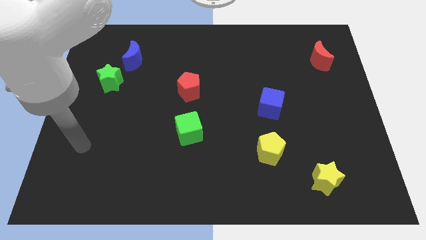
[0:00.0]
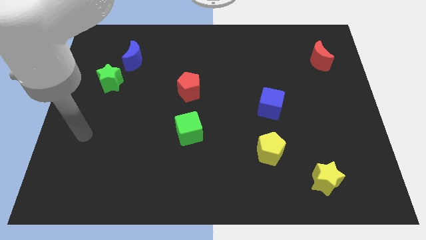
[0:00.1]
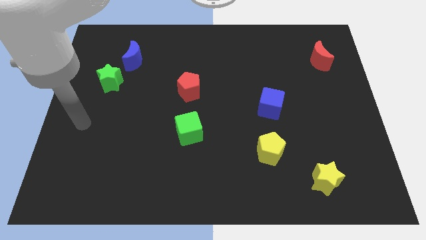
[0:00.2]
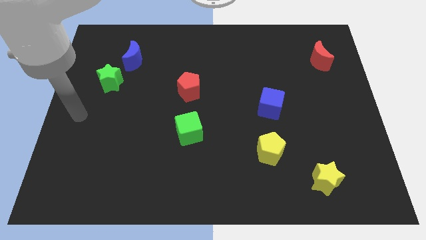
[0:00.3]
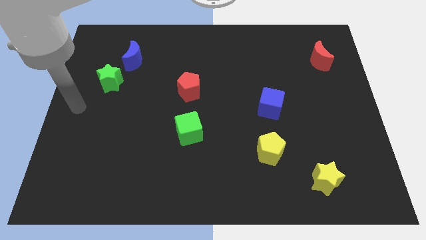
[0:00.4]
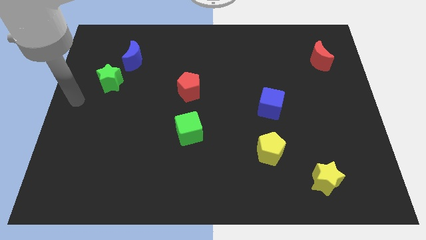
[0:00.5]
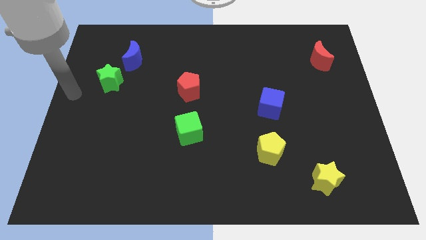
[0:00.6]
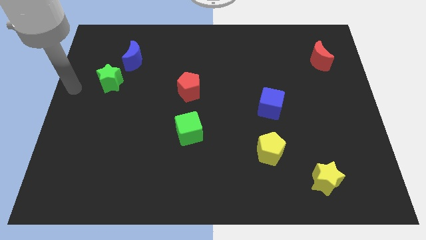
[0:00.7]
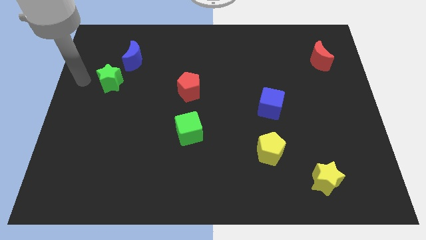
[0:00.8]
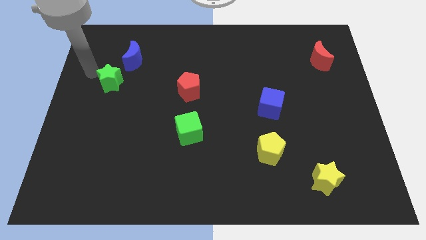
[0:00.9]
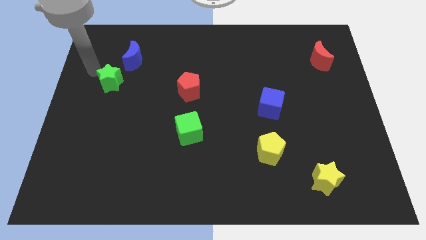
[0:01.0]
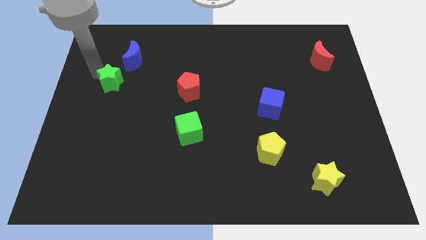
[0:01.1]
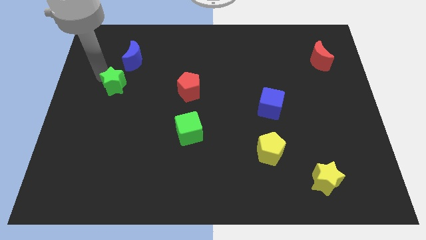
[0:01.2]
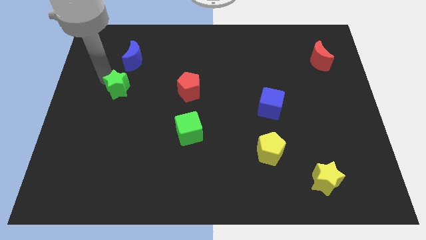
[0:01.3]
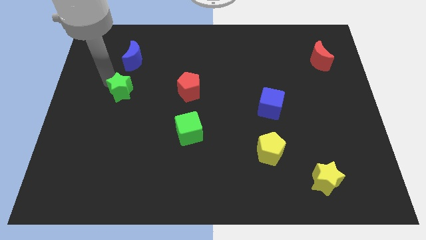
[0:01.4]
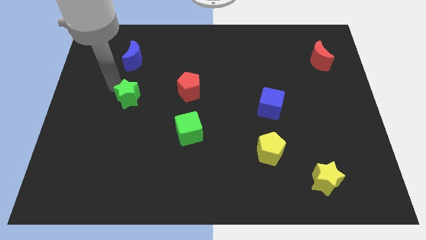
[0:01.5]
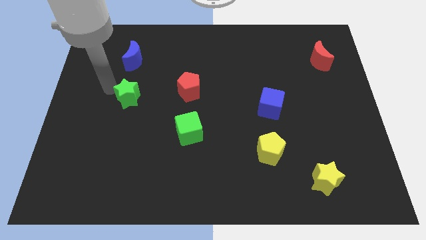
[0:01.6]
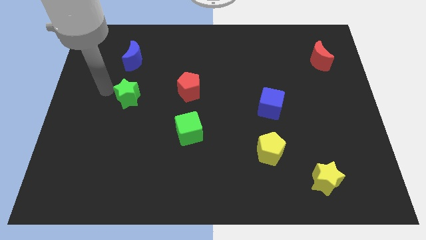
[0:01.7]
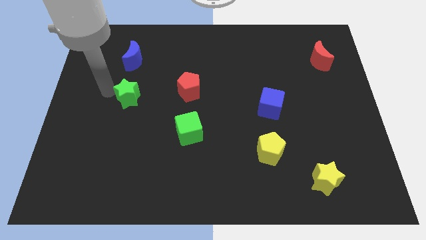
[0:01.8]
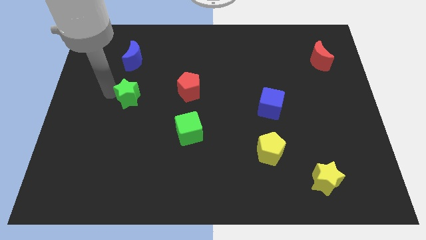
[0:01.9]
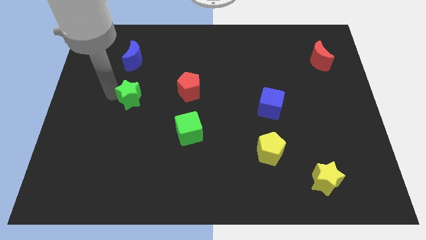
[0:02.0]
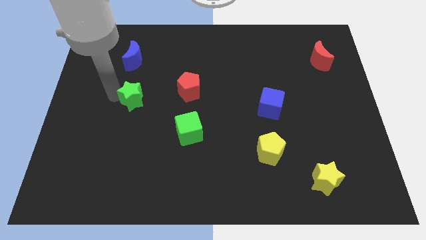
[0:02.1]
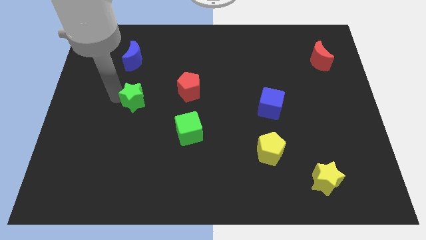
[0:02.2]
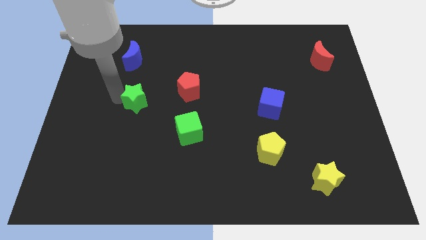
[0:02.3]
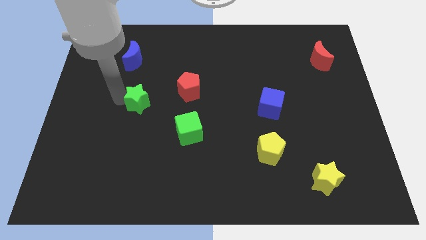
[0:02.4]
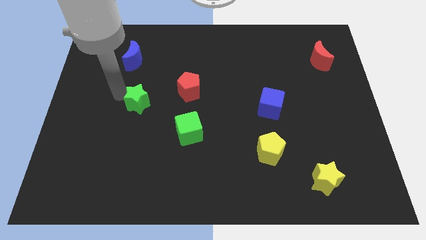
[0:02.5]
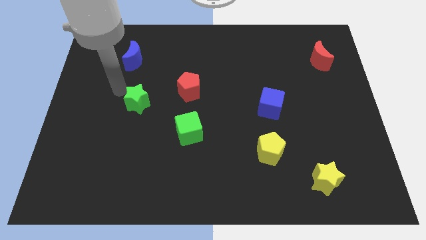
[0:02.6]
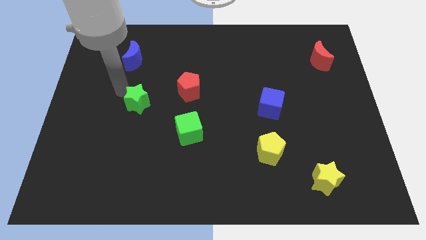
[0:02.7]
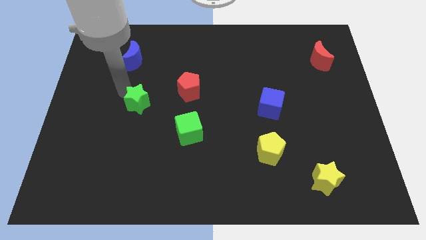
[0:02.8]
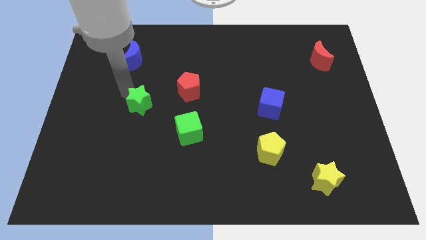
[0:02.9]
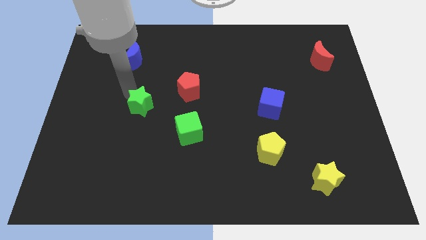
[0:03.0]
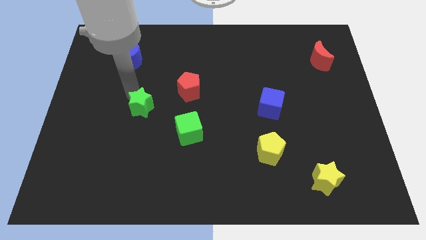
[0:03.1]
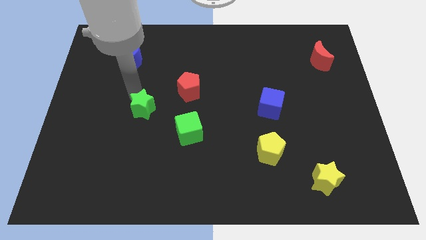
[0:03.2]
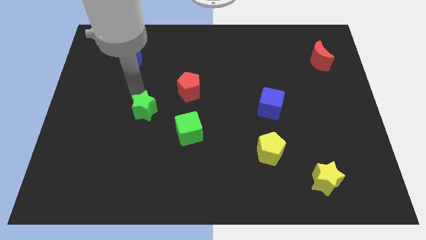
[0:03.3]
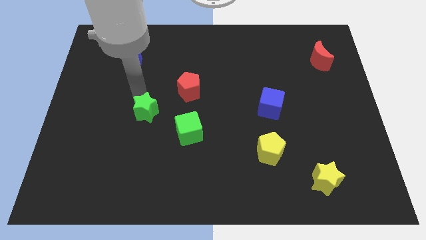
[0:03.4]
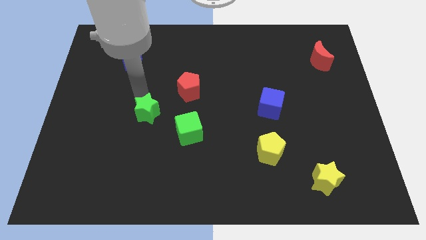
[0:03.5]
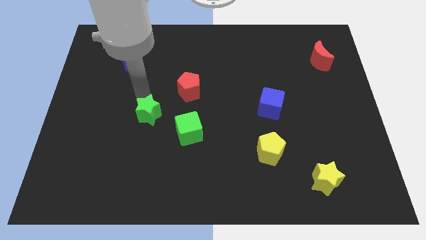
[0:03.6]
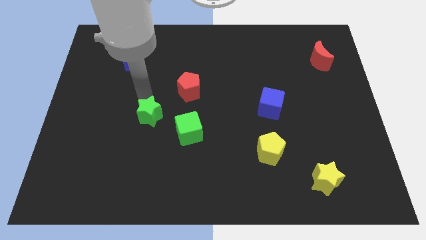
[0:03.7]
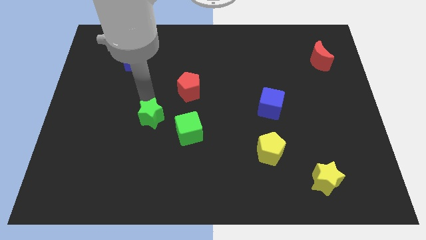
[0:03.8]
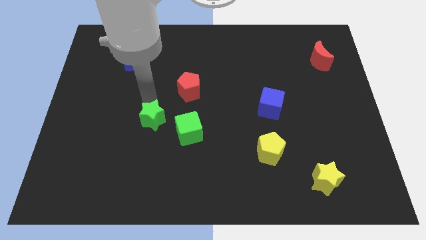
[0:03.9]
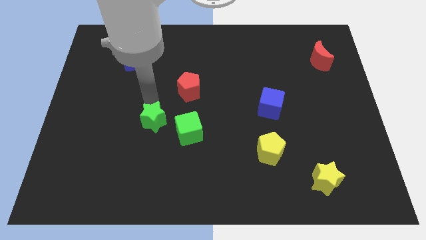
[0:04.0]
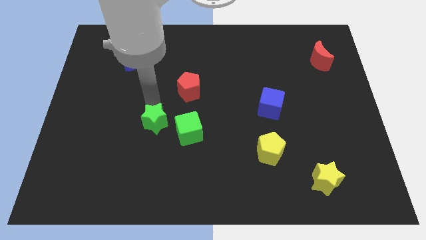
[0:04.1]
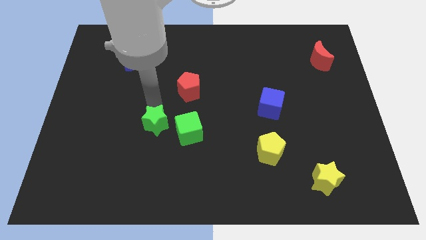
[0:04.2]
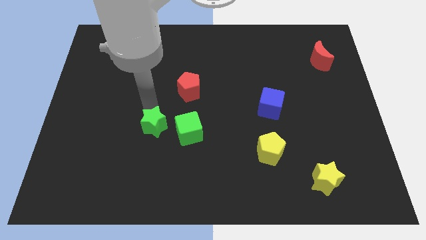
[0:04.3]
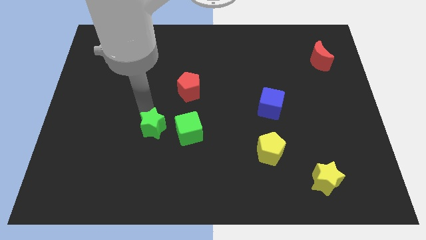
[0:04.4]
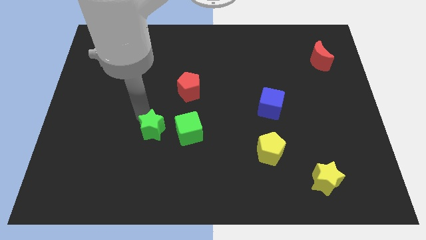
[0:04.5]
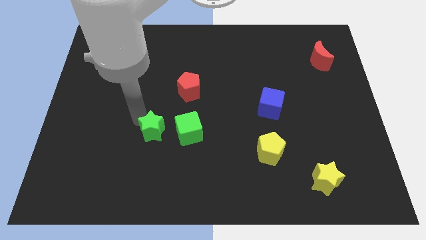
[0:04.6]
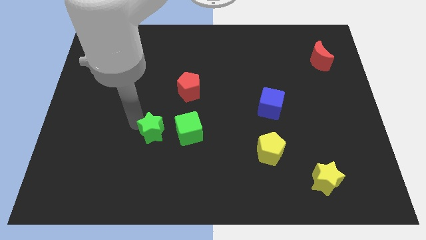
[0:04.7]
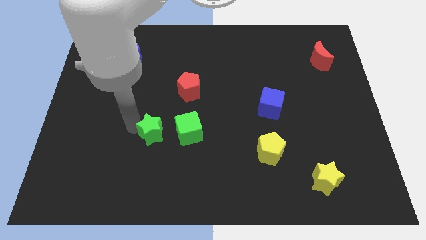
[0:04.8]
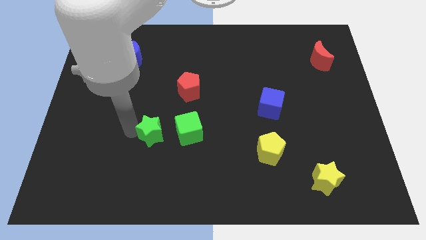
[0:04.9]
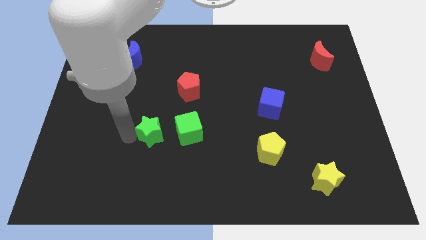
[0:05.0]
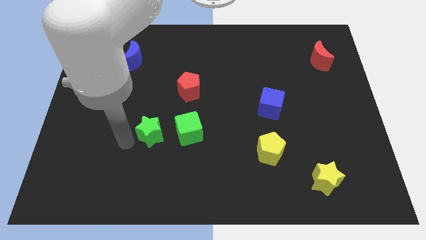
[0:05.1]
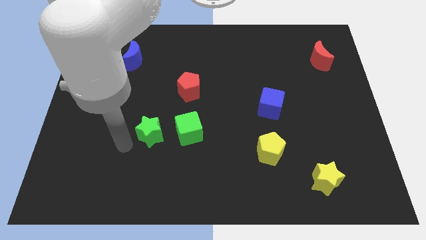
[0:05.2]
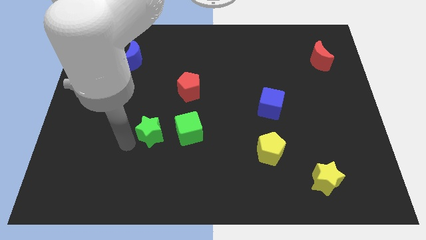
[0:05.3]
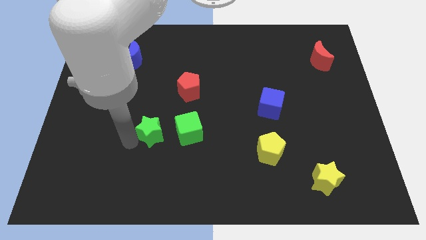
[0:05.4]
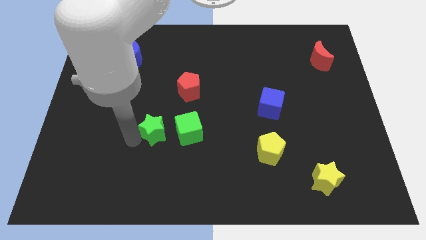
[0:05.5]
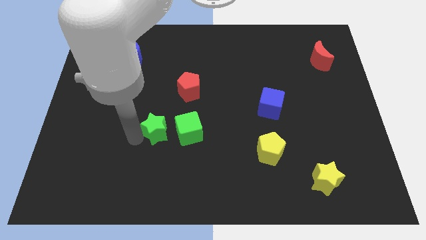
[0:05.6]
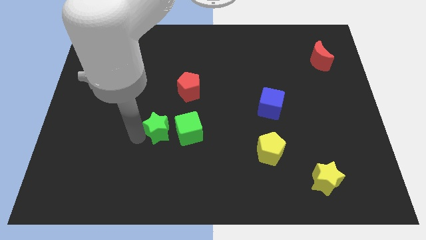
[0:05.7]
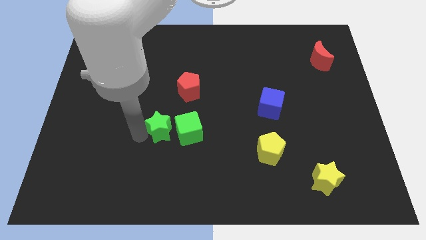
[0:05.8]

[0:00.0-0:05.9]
put the green star close to the green cube

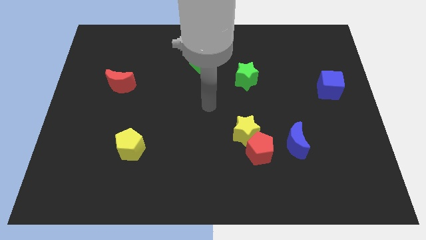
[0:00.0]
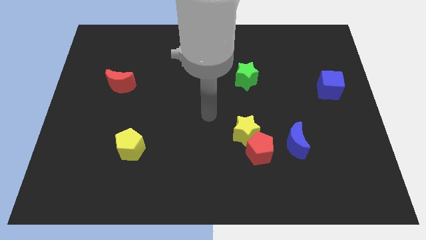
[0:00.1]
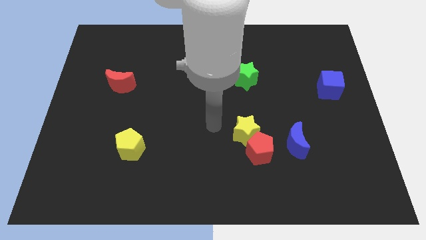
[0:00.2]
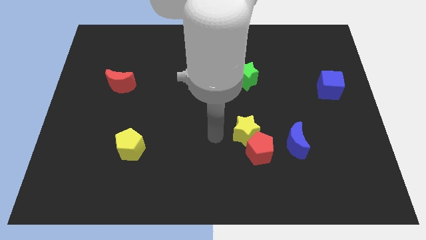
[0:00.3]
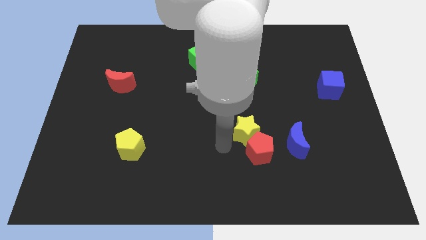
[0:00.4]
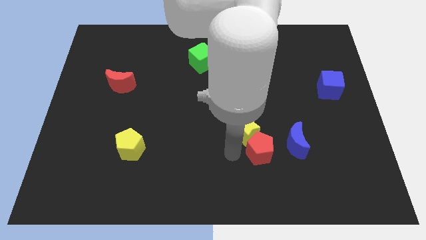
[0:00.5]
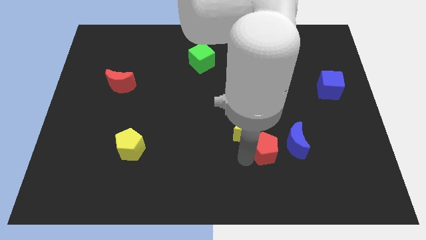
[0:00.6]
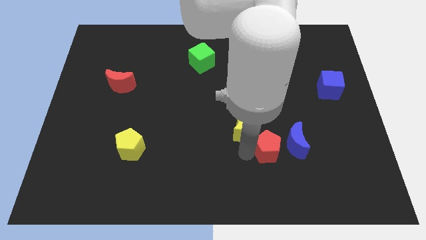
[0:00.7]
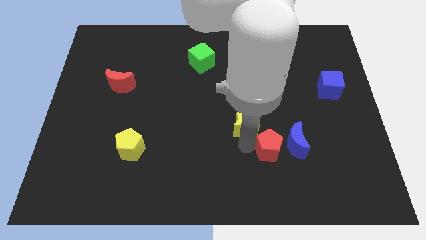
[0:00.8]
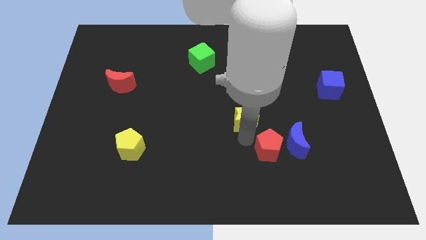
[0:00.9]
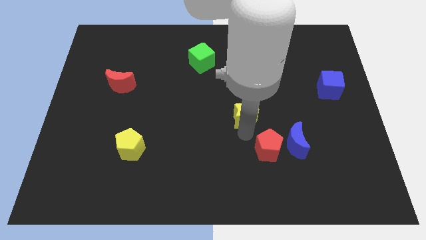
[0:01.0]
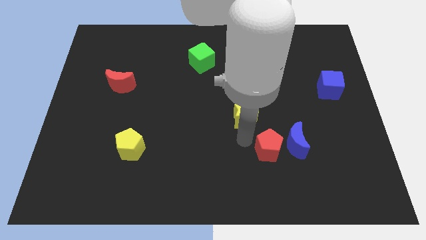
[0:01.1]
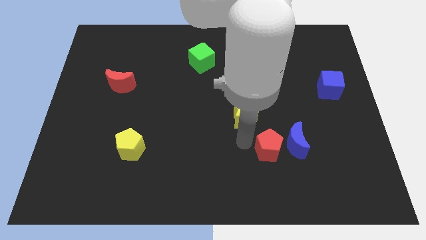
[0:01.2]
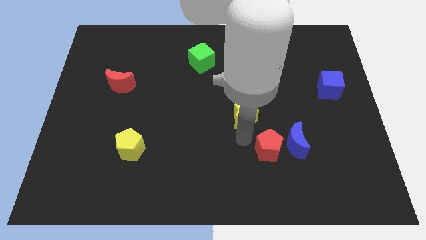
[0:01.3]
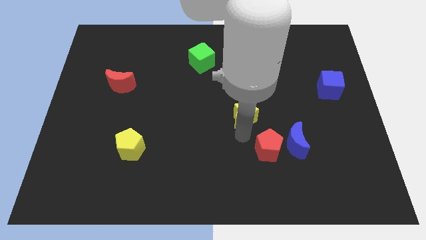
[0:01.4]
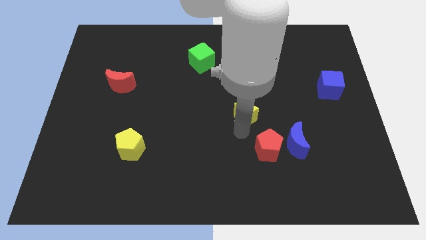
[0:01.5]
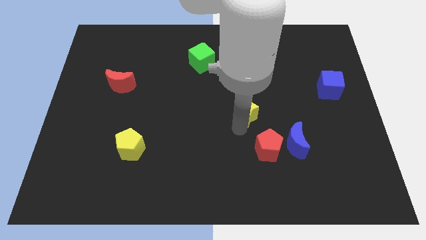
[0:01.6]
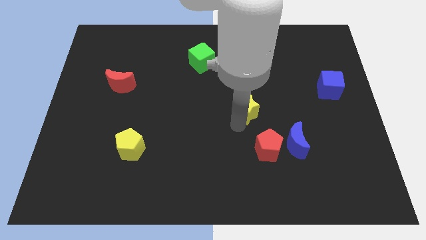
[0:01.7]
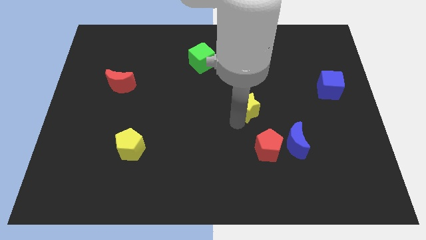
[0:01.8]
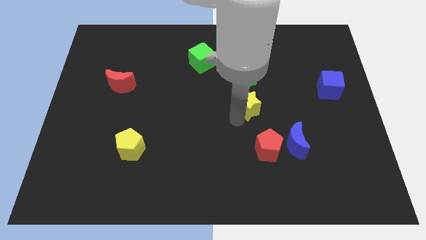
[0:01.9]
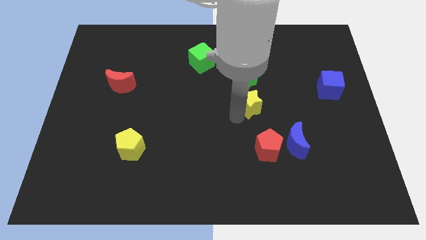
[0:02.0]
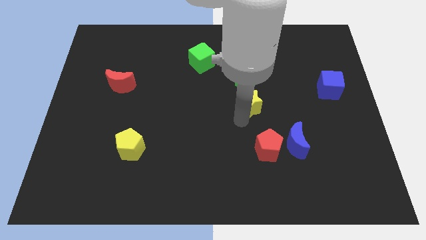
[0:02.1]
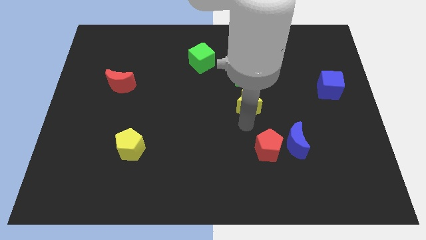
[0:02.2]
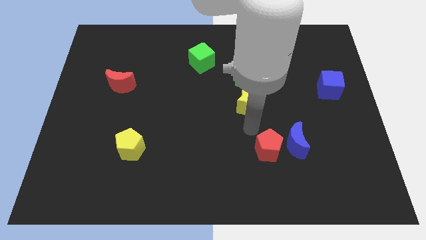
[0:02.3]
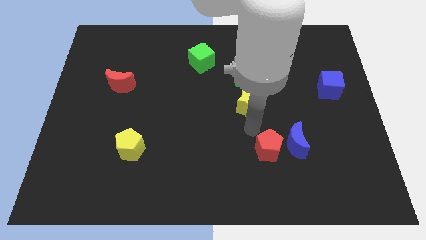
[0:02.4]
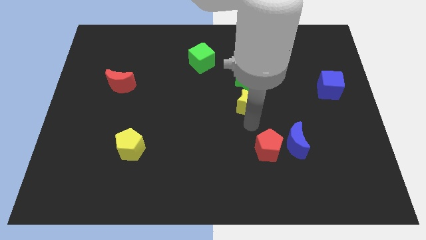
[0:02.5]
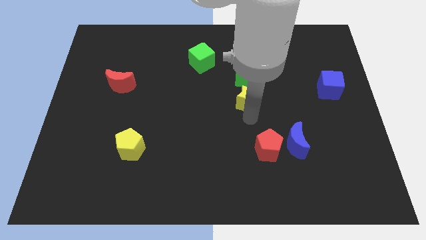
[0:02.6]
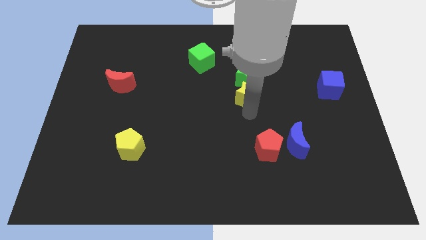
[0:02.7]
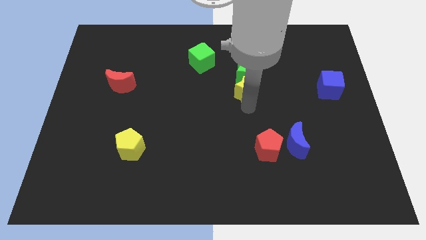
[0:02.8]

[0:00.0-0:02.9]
put the yellow star towards the green star
